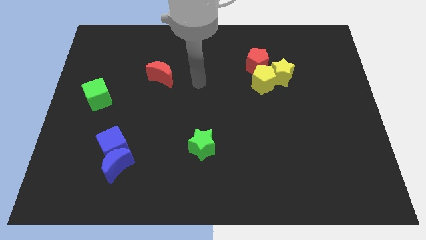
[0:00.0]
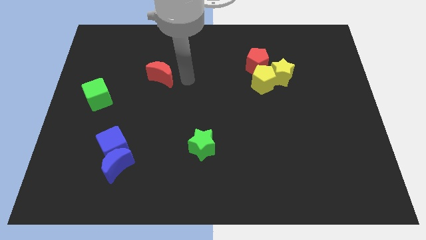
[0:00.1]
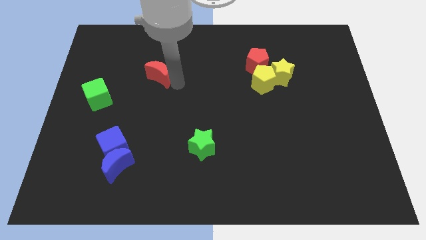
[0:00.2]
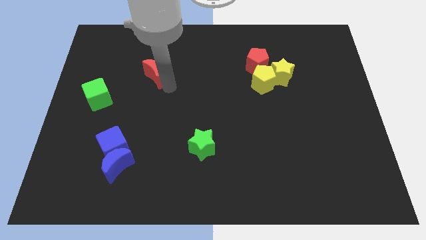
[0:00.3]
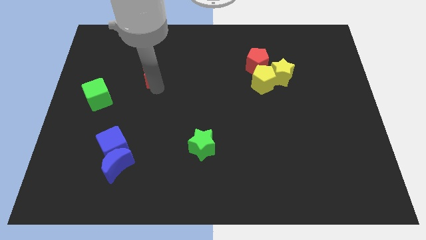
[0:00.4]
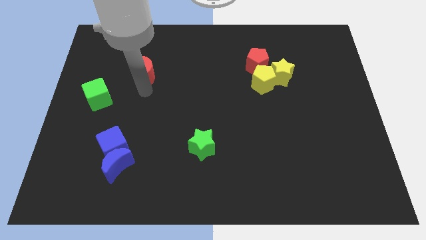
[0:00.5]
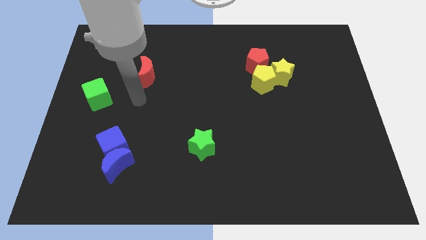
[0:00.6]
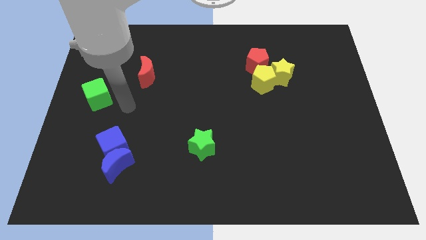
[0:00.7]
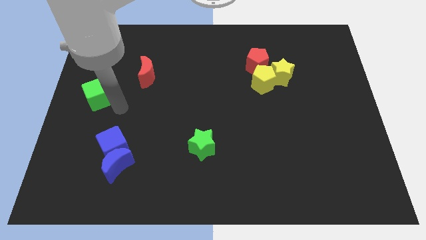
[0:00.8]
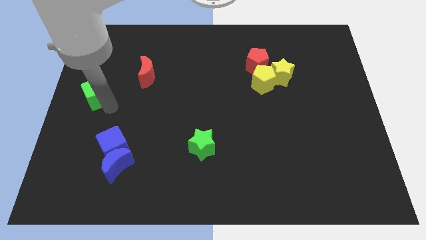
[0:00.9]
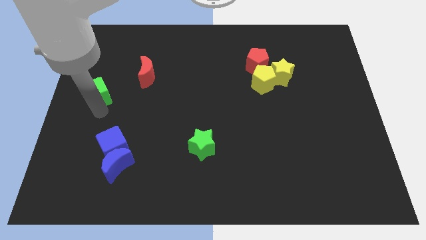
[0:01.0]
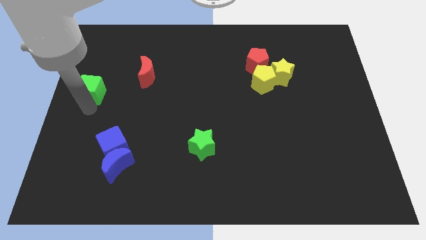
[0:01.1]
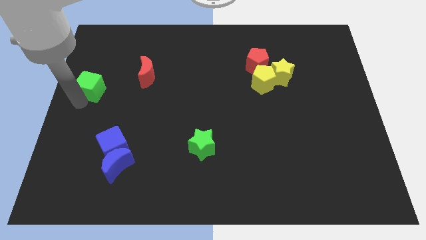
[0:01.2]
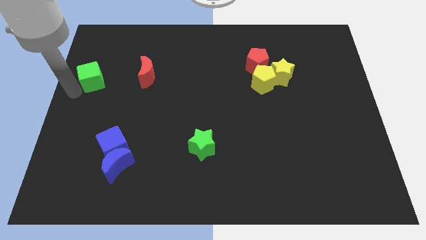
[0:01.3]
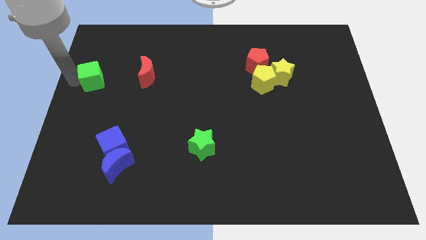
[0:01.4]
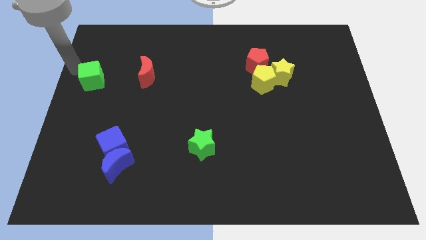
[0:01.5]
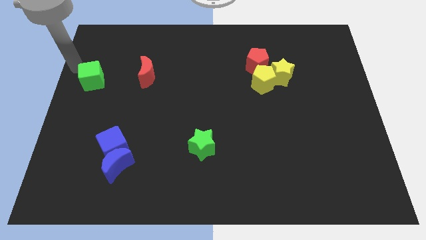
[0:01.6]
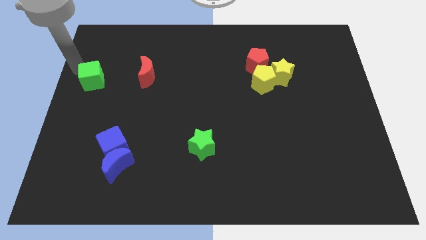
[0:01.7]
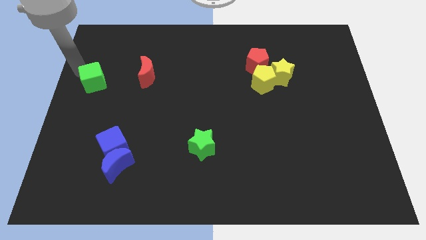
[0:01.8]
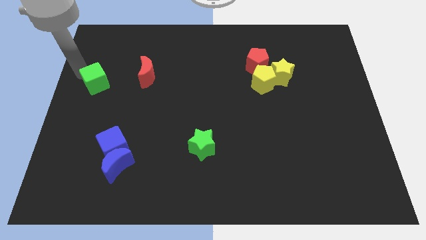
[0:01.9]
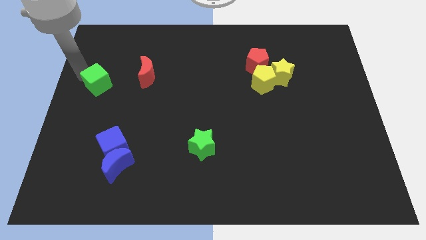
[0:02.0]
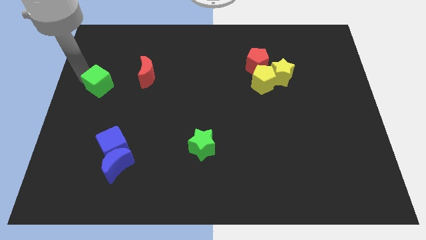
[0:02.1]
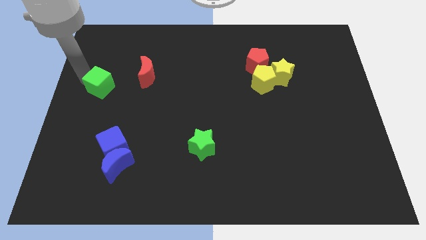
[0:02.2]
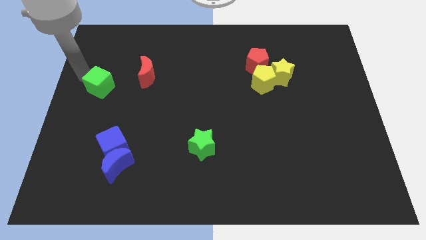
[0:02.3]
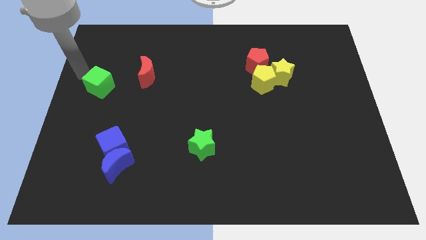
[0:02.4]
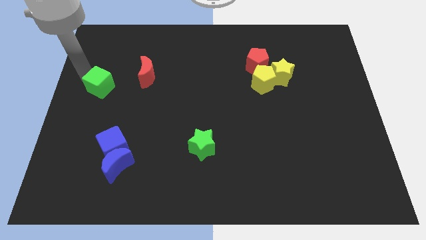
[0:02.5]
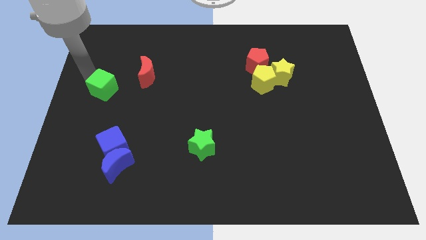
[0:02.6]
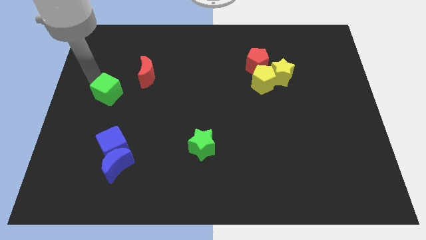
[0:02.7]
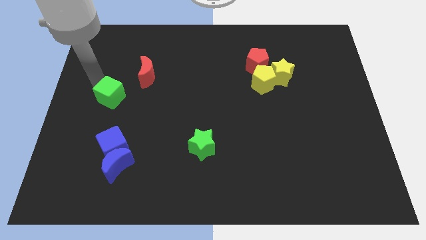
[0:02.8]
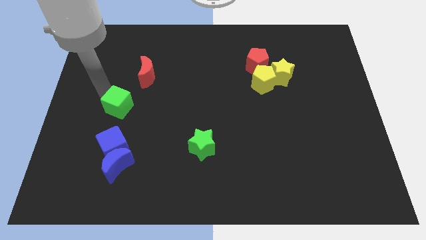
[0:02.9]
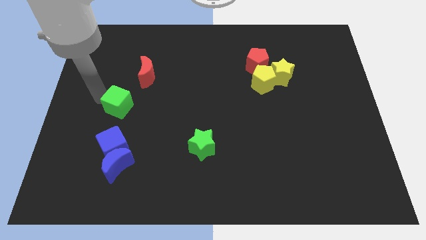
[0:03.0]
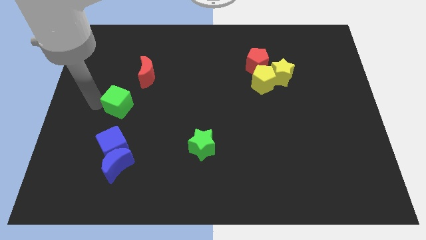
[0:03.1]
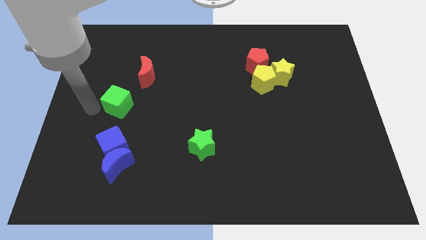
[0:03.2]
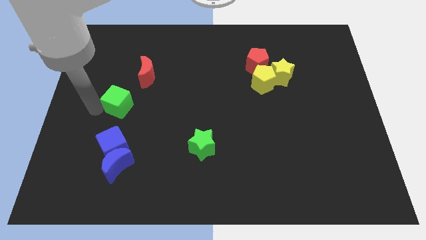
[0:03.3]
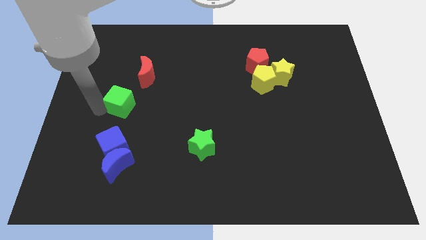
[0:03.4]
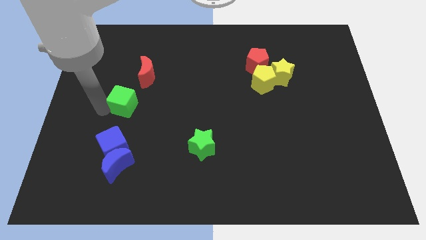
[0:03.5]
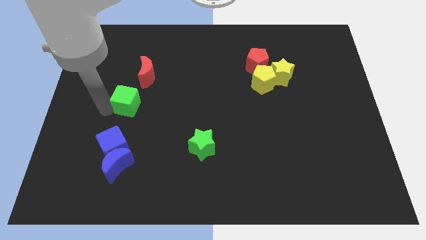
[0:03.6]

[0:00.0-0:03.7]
slide the green cube a little bit right

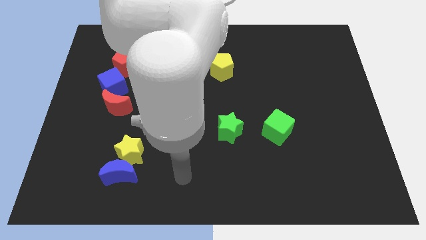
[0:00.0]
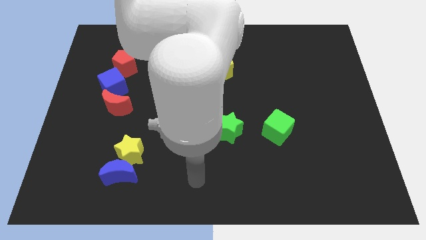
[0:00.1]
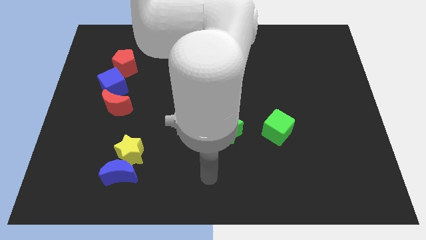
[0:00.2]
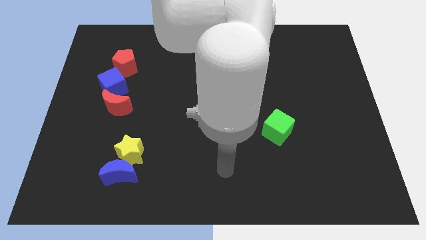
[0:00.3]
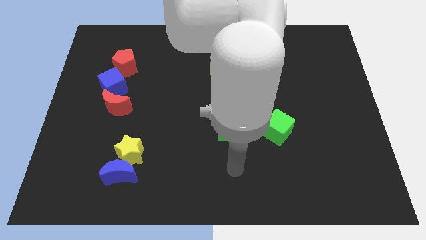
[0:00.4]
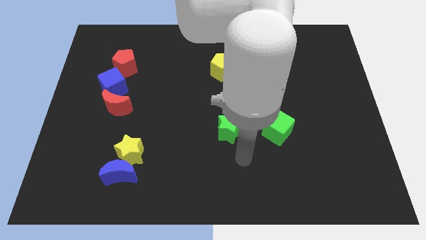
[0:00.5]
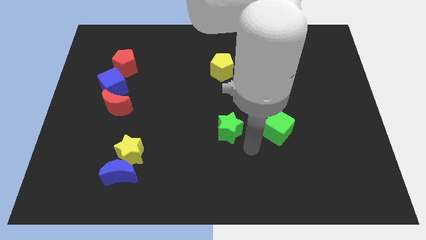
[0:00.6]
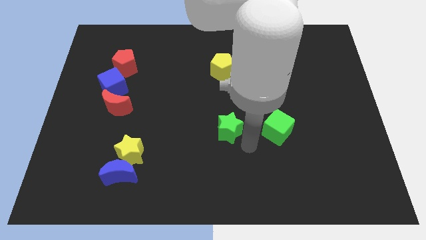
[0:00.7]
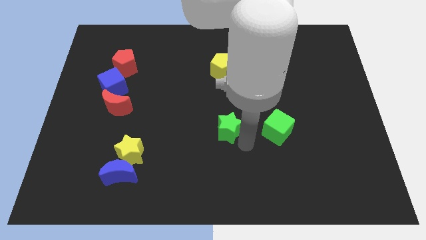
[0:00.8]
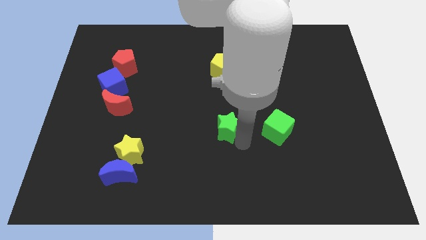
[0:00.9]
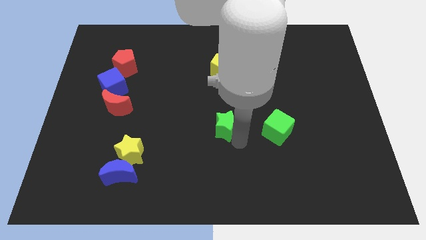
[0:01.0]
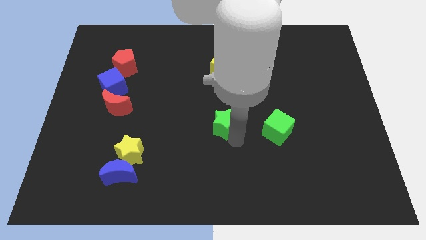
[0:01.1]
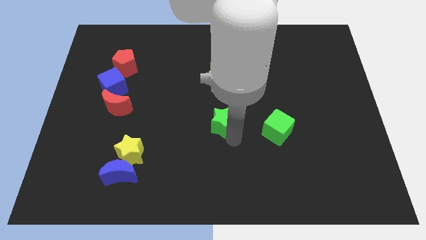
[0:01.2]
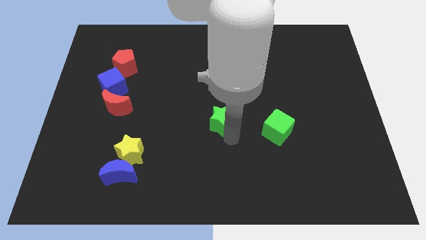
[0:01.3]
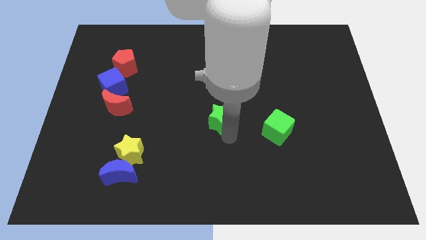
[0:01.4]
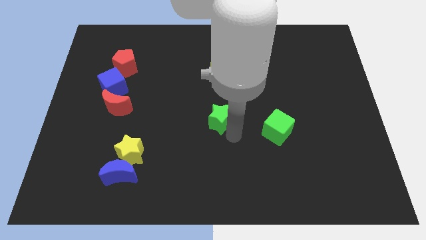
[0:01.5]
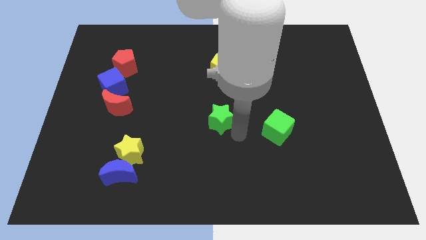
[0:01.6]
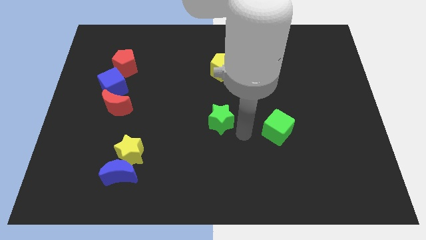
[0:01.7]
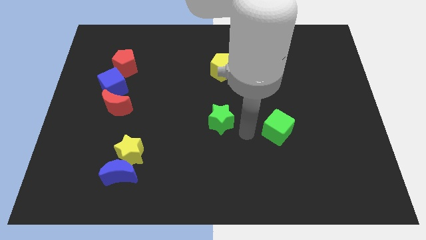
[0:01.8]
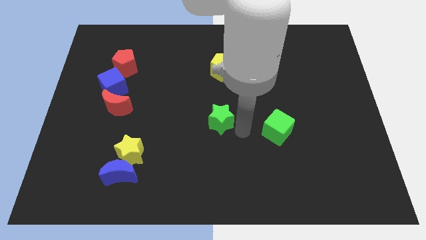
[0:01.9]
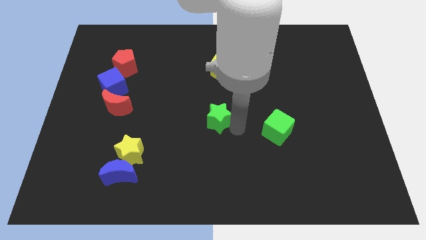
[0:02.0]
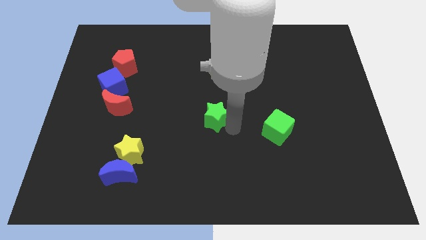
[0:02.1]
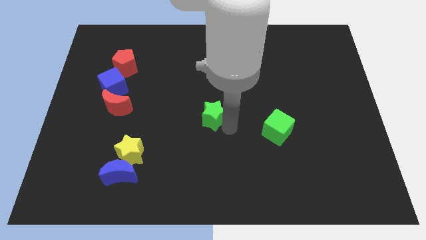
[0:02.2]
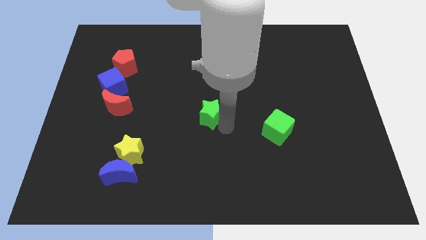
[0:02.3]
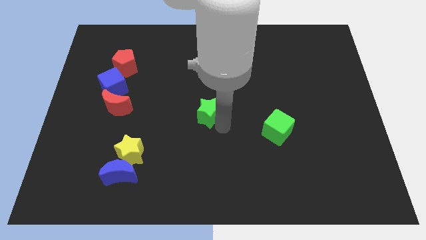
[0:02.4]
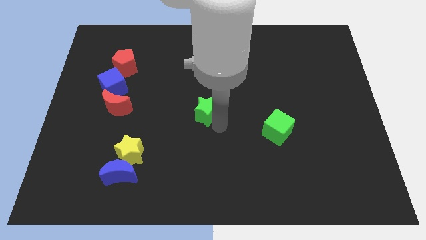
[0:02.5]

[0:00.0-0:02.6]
move the green star upwards and left diagonally somewhat

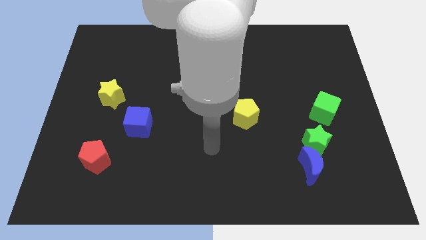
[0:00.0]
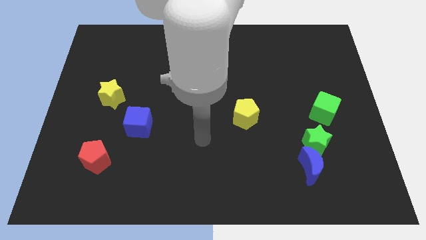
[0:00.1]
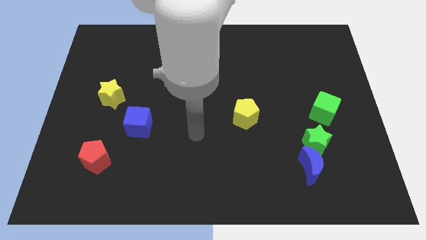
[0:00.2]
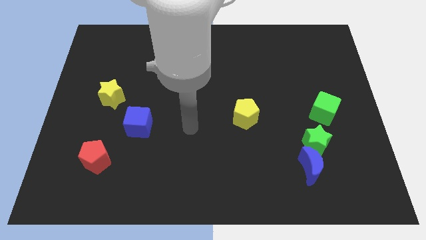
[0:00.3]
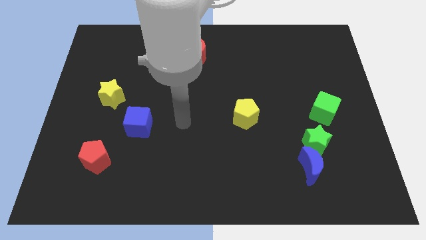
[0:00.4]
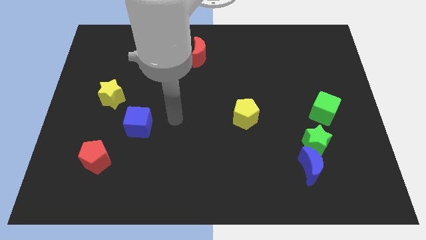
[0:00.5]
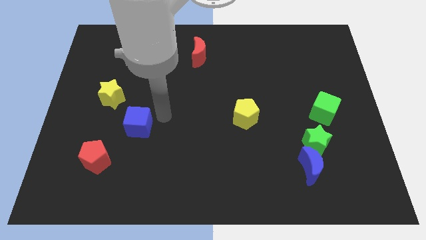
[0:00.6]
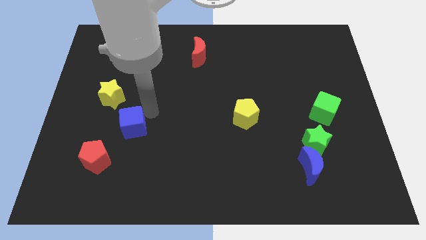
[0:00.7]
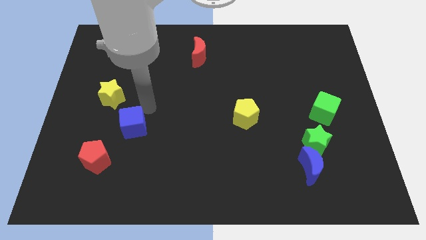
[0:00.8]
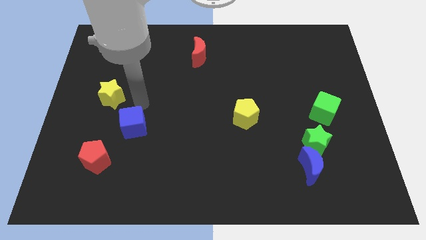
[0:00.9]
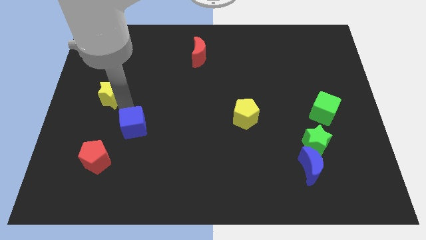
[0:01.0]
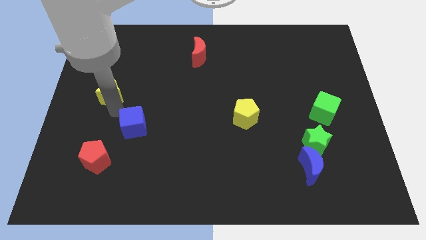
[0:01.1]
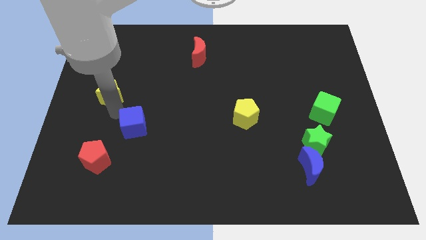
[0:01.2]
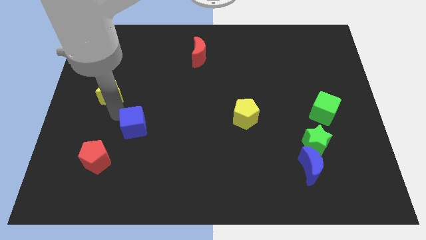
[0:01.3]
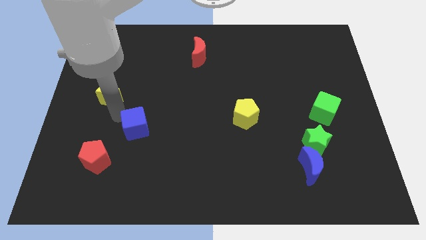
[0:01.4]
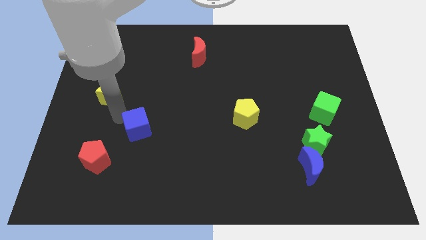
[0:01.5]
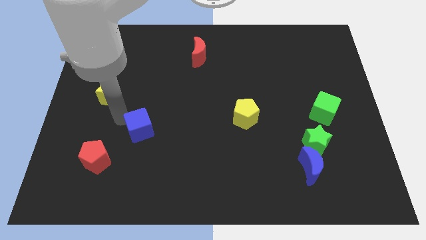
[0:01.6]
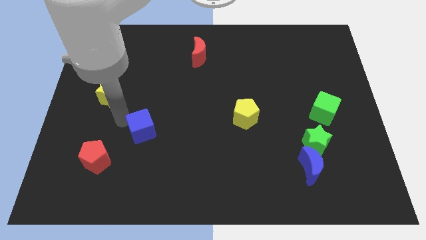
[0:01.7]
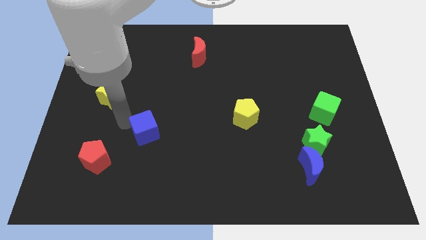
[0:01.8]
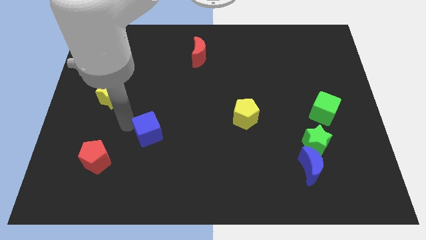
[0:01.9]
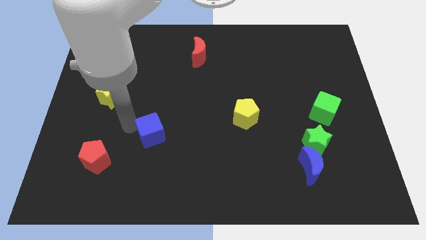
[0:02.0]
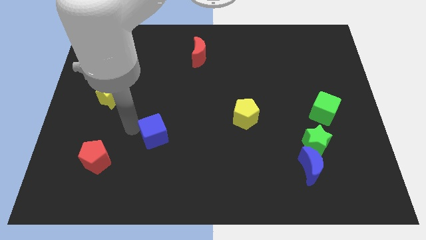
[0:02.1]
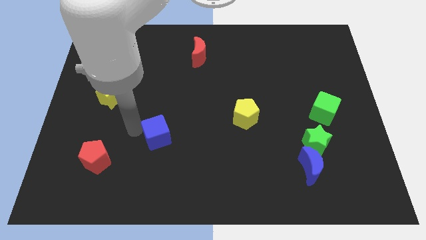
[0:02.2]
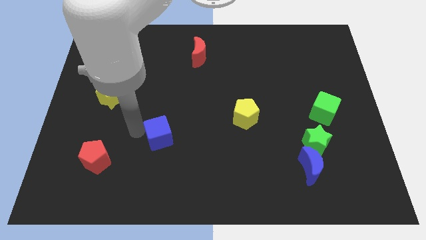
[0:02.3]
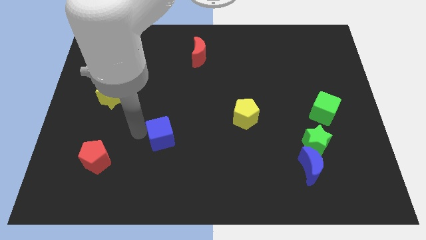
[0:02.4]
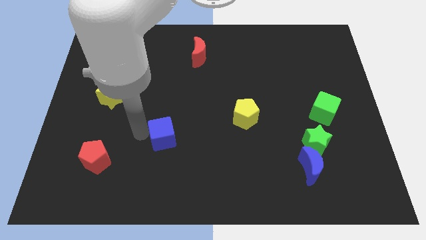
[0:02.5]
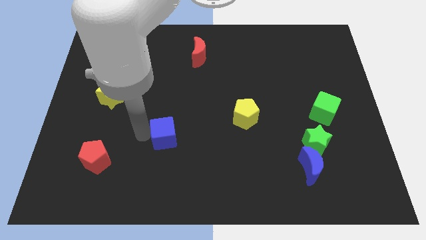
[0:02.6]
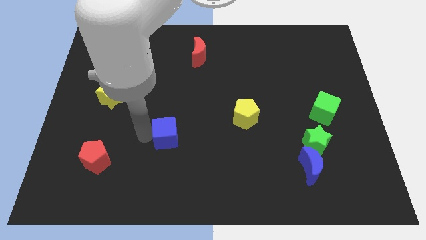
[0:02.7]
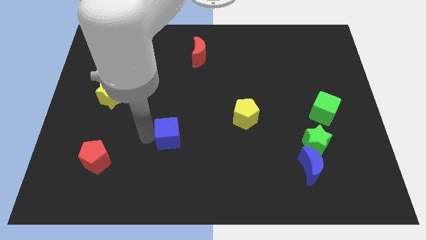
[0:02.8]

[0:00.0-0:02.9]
move the blue cube diagonally downwards and to the right a bit
